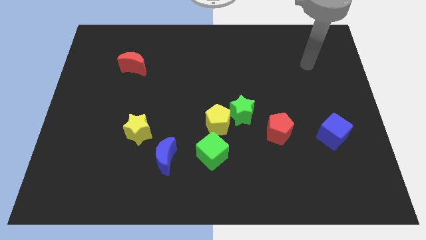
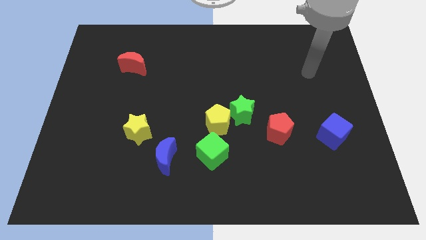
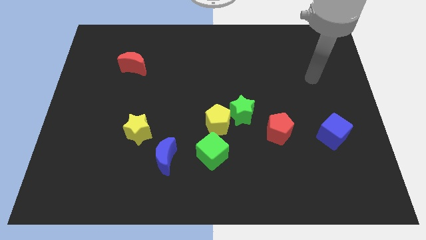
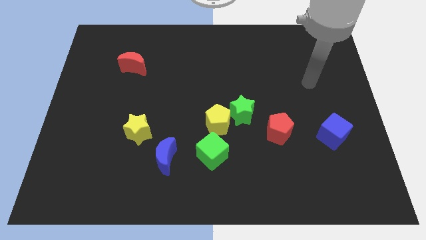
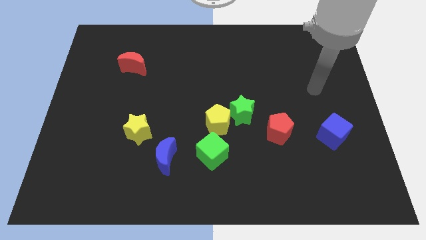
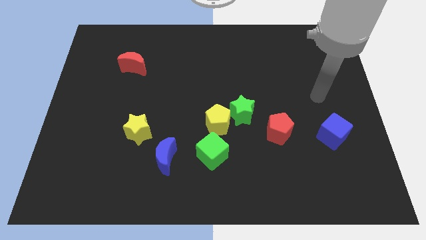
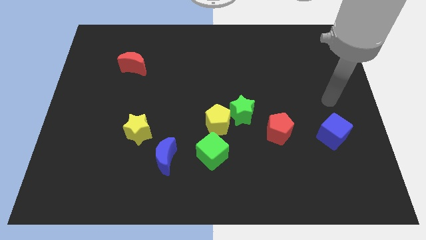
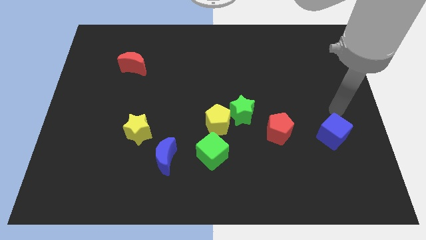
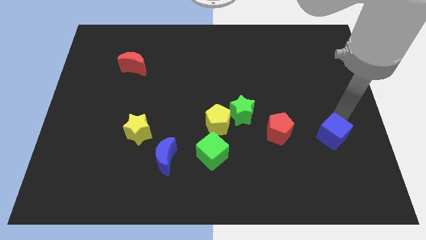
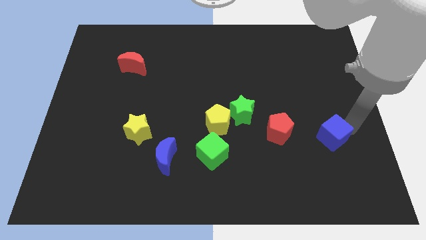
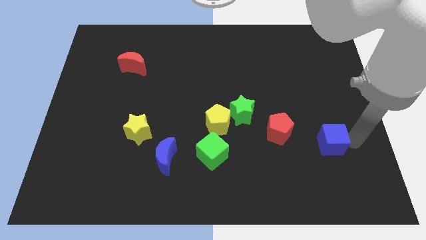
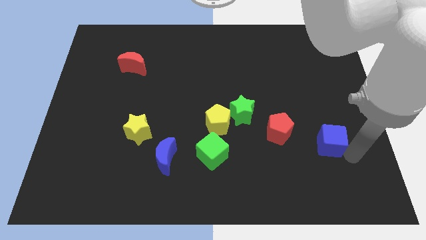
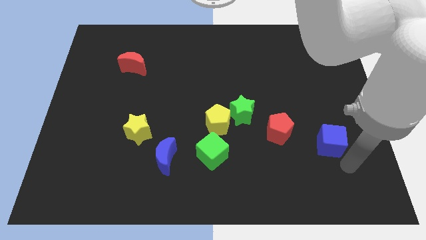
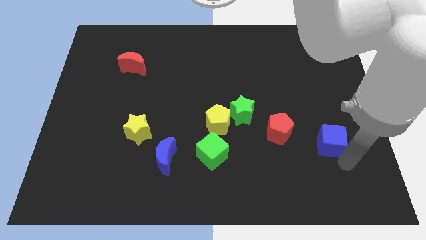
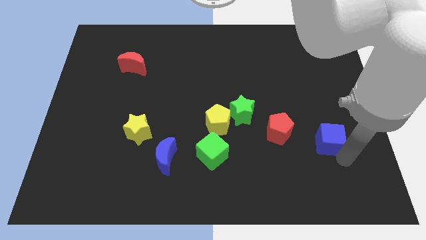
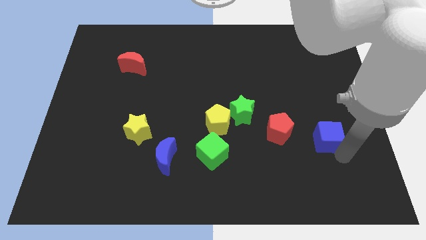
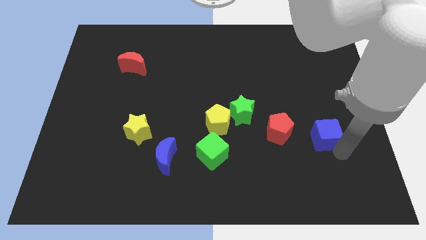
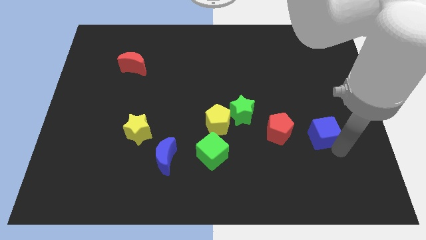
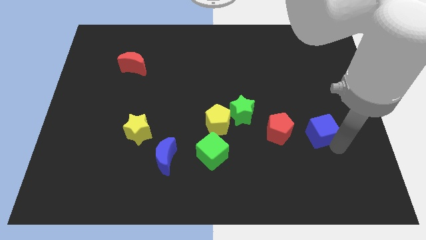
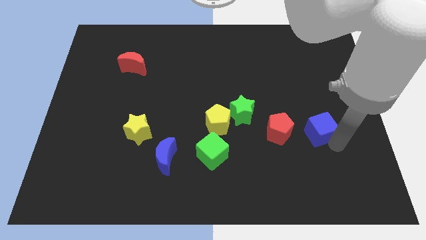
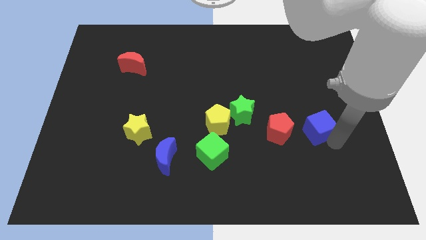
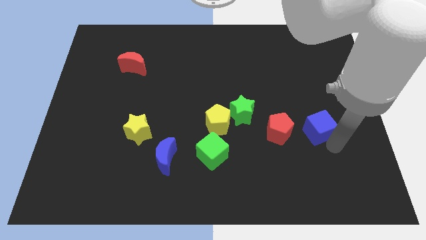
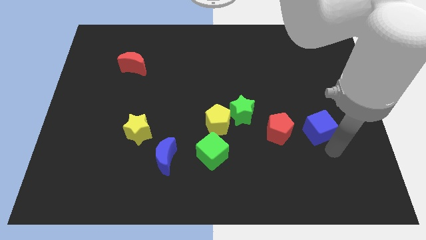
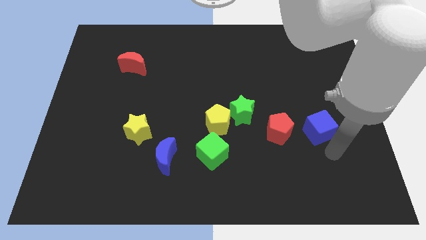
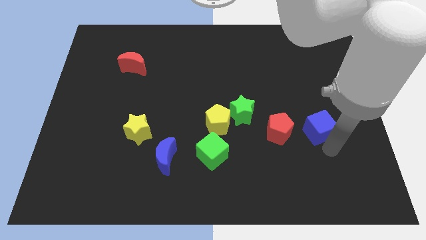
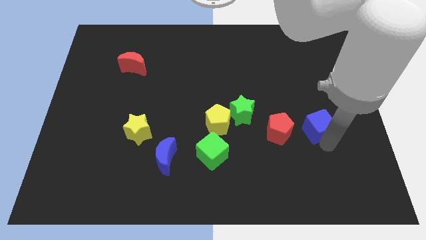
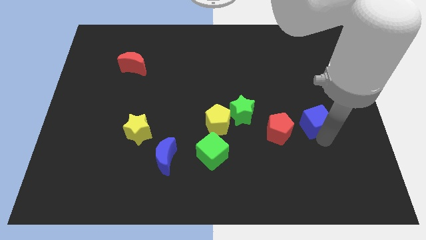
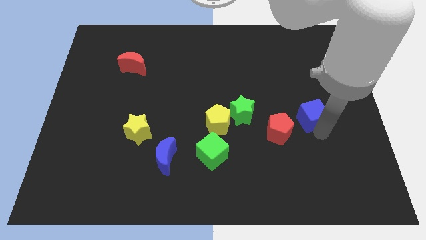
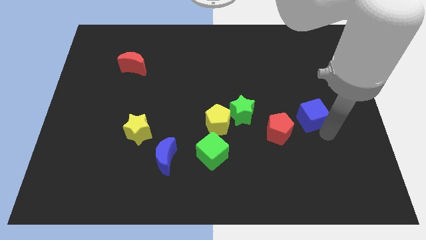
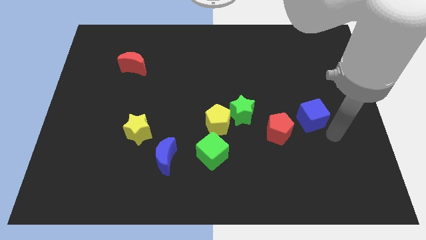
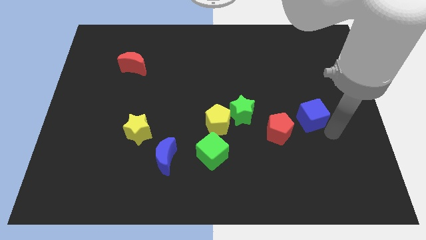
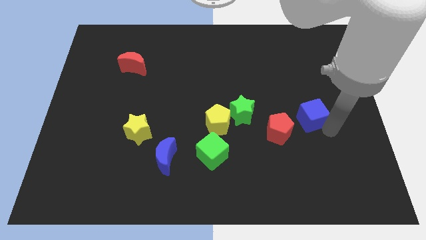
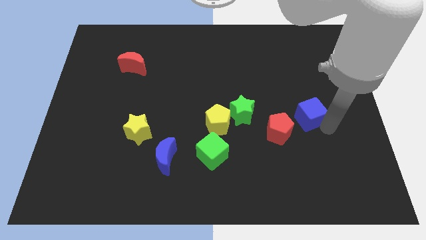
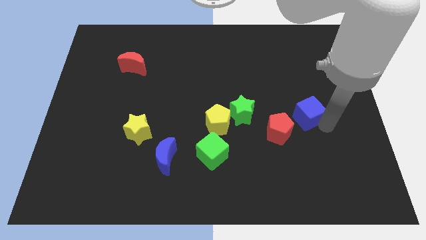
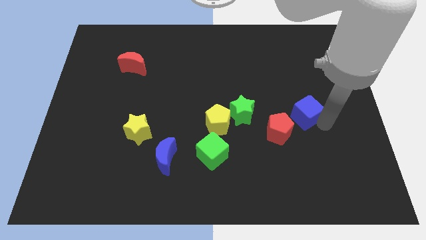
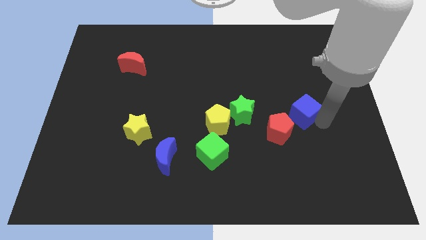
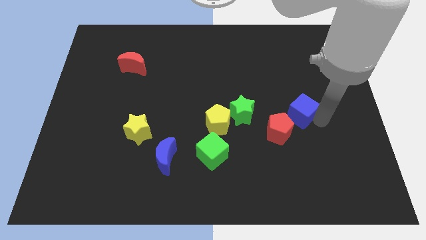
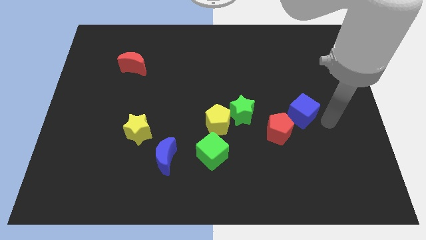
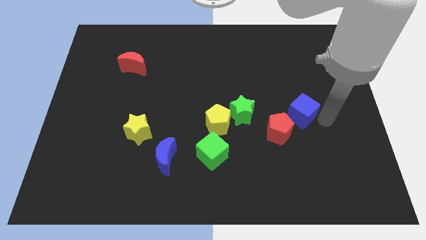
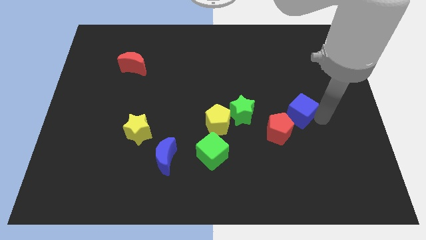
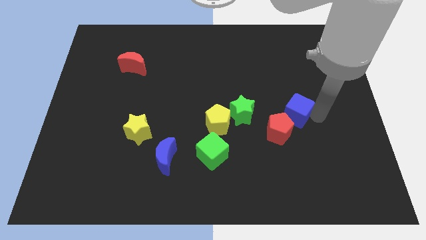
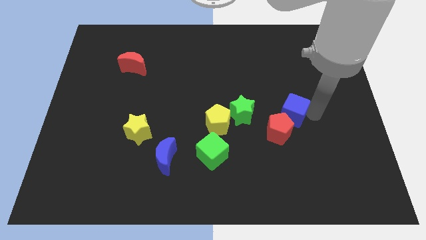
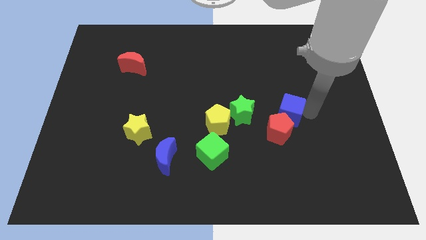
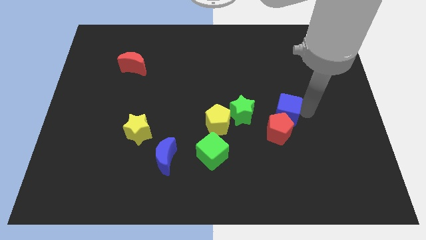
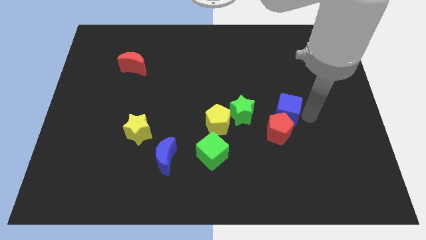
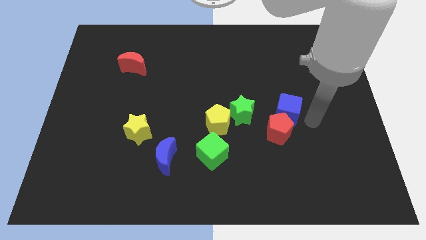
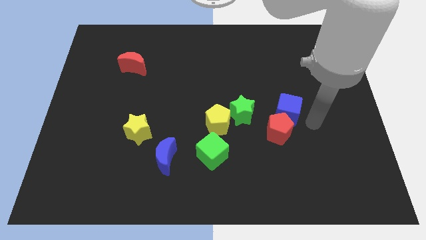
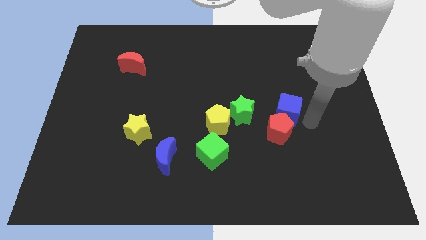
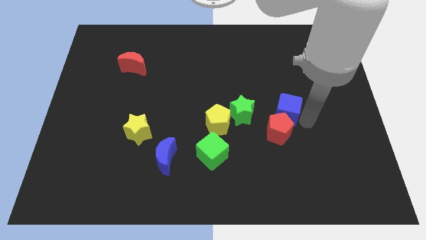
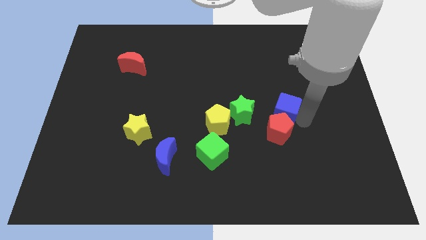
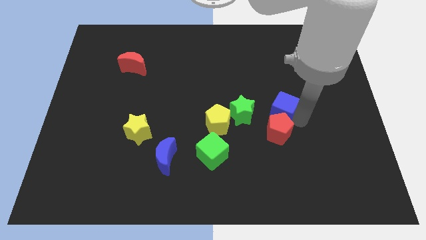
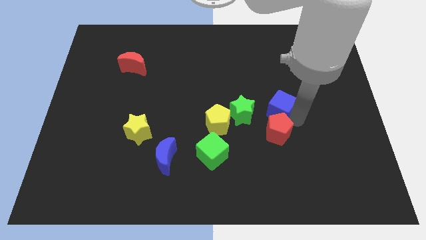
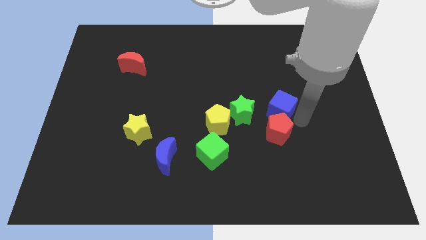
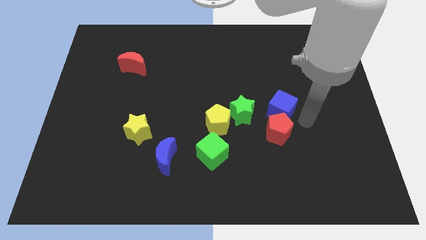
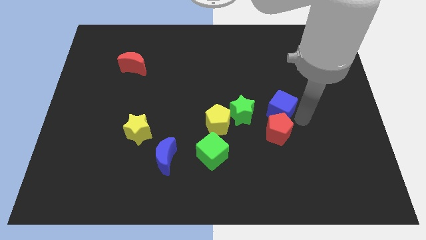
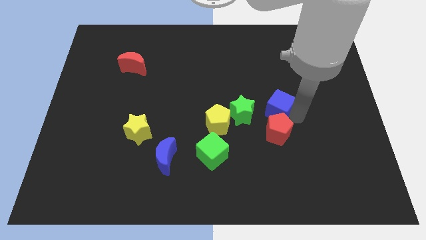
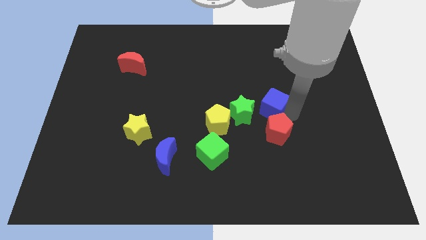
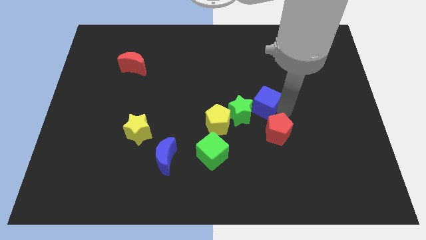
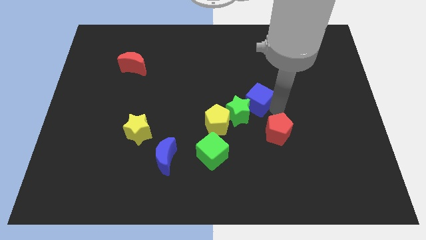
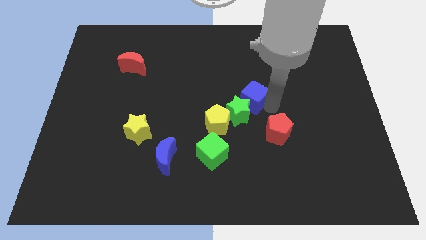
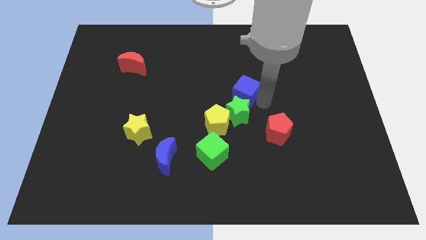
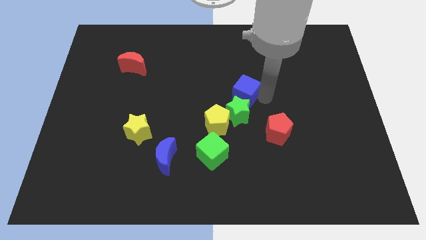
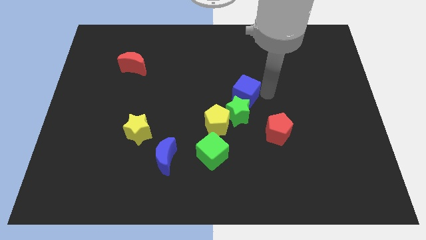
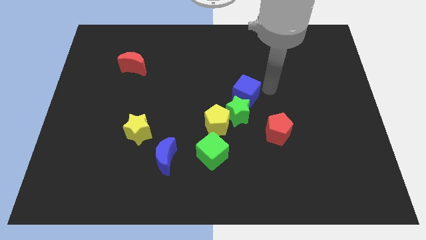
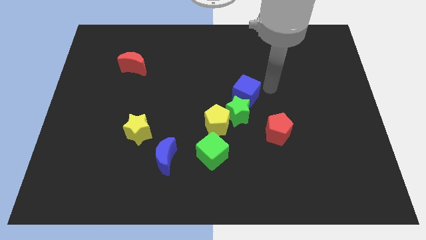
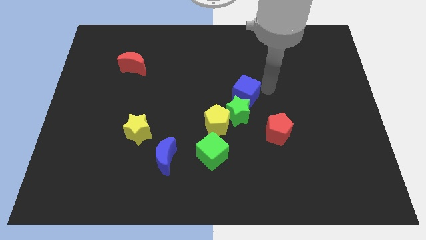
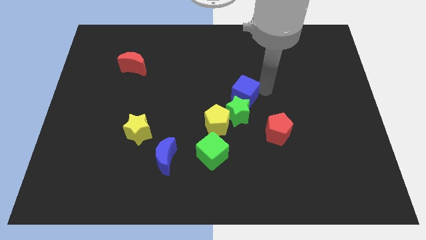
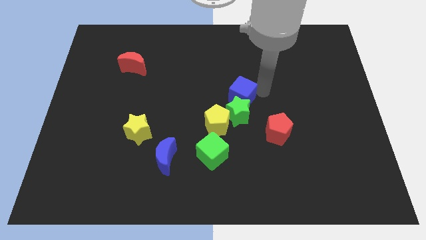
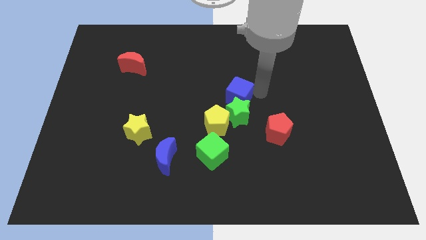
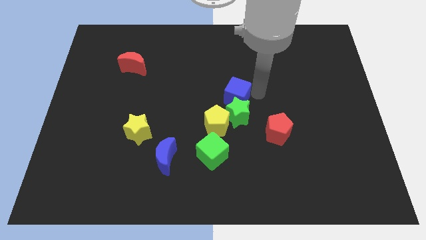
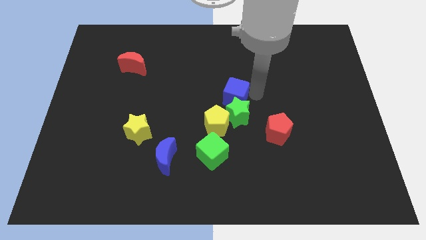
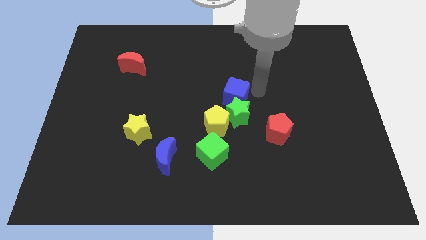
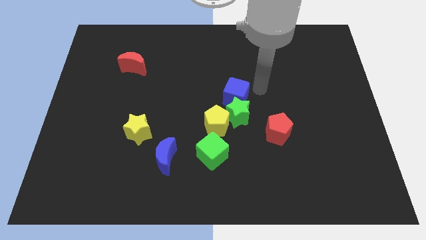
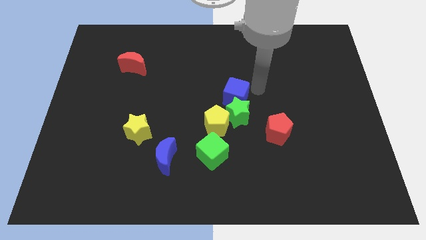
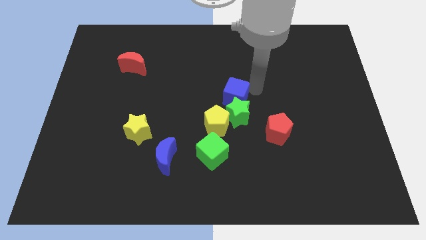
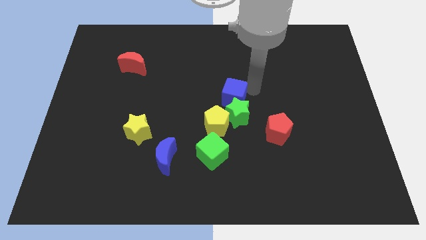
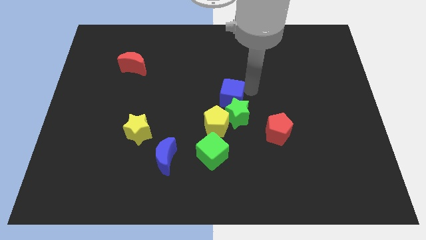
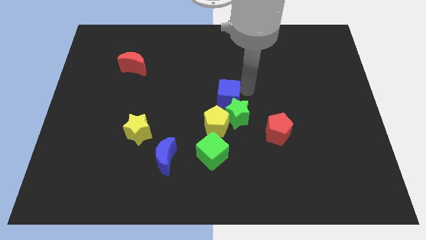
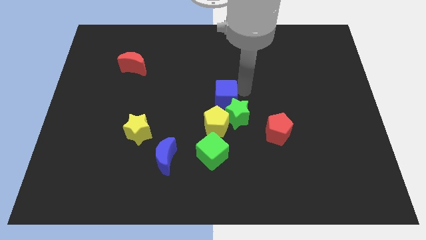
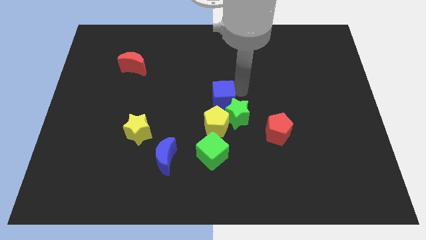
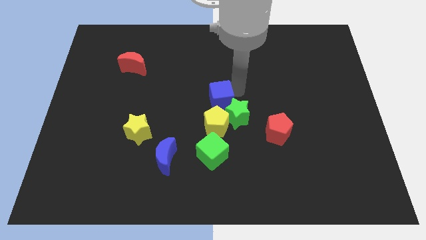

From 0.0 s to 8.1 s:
slide the blue cube left

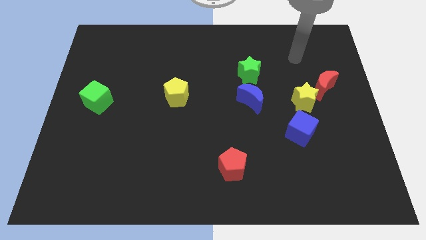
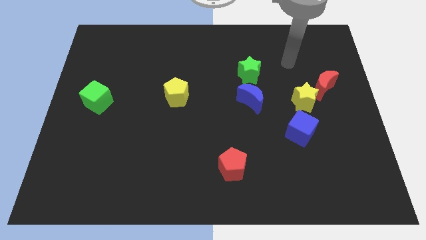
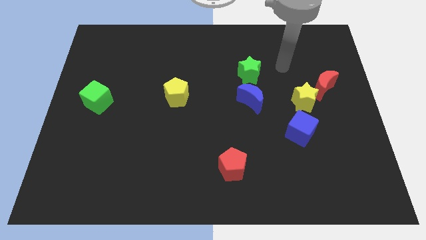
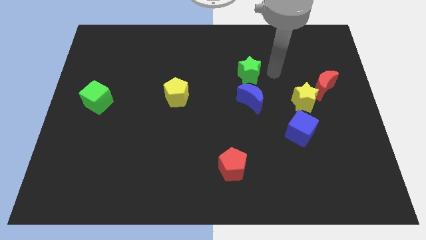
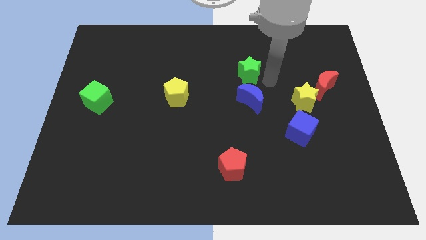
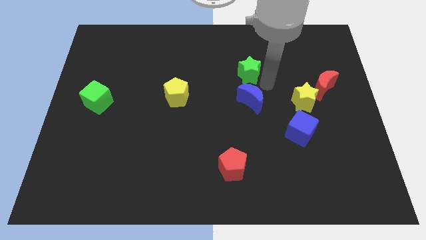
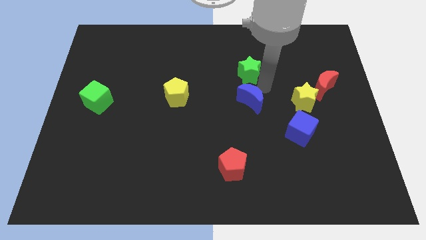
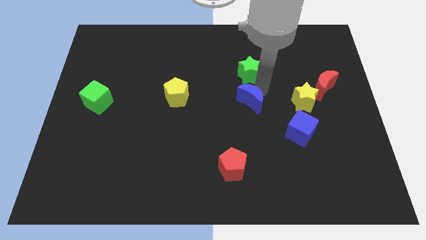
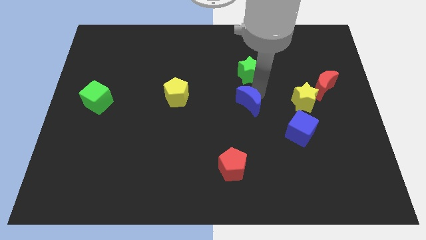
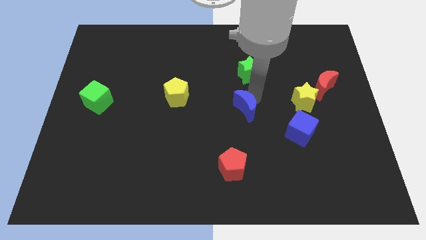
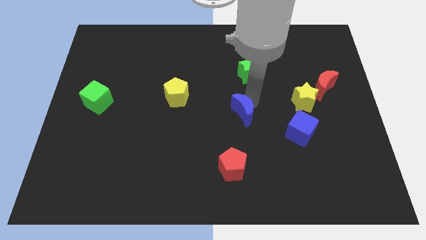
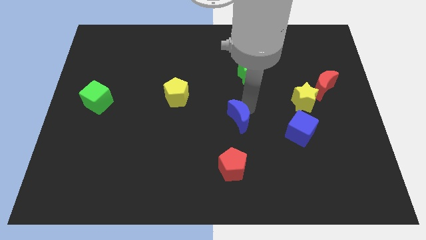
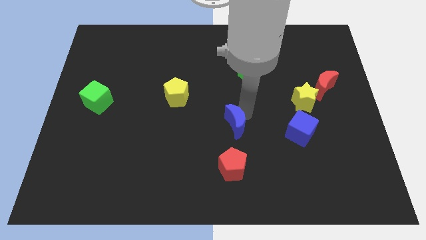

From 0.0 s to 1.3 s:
slide the blue moon a little diagonally downwards and to the left
